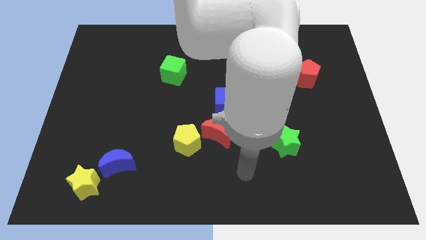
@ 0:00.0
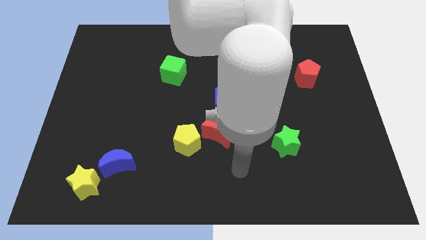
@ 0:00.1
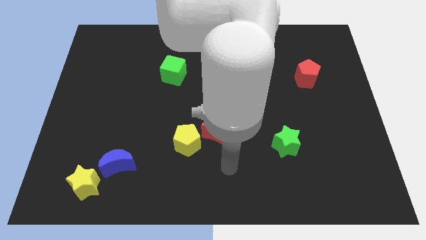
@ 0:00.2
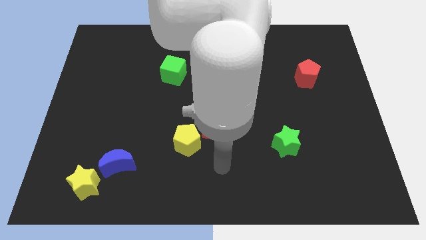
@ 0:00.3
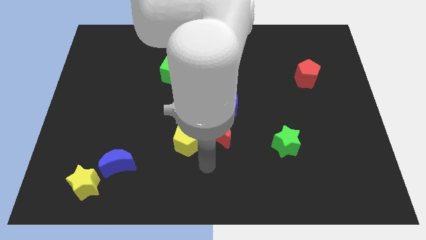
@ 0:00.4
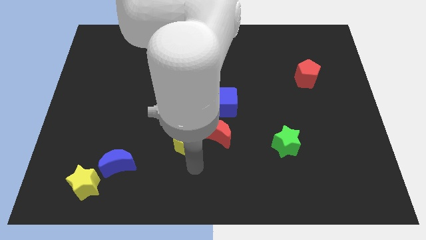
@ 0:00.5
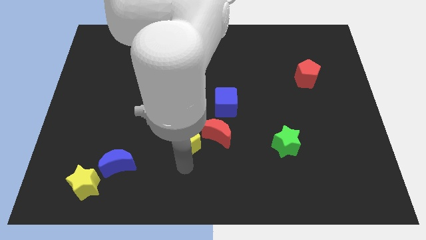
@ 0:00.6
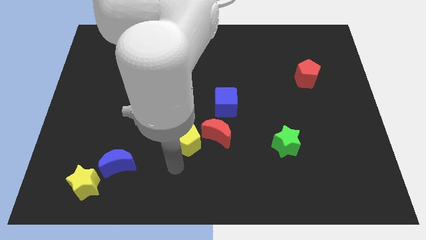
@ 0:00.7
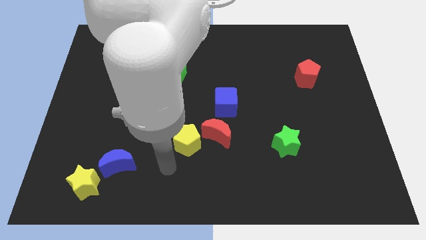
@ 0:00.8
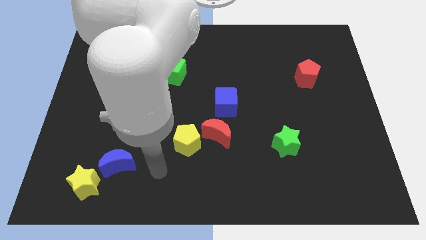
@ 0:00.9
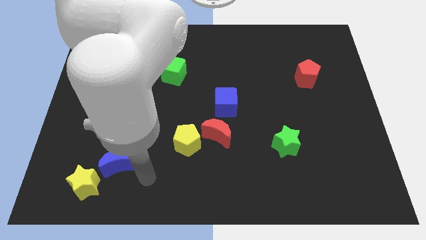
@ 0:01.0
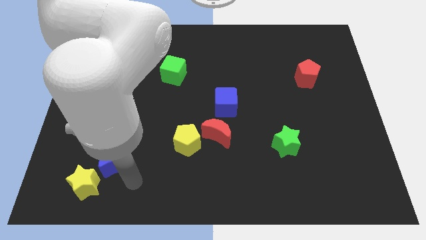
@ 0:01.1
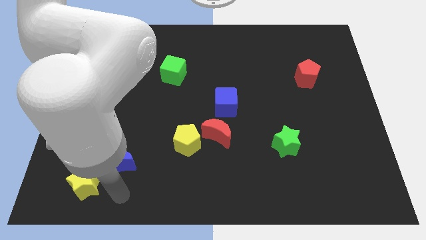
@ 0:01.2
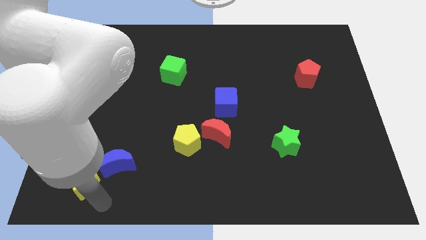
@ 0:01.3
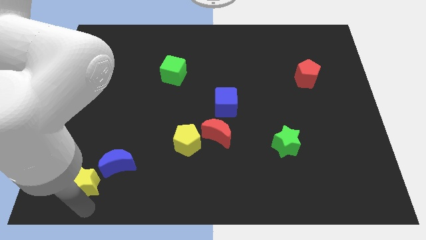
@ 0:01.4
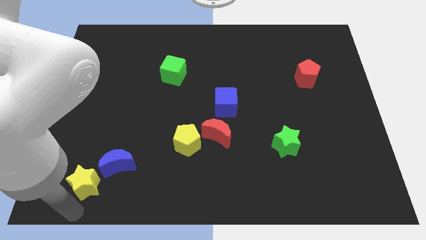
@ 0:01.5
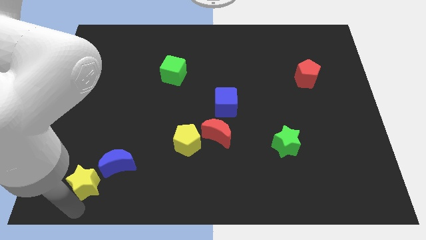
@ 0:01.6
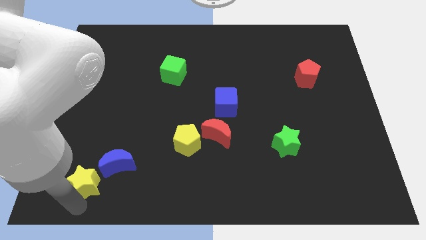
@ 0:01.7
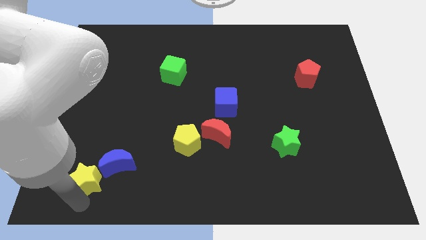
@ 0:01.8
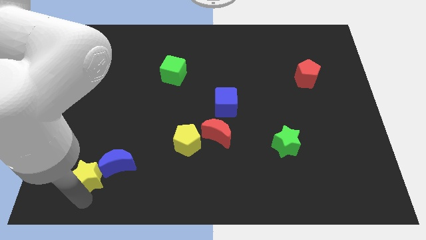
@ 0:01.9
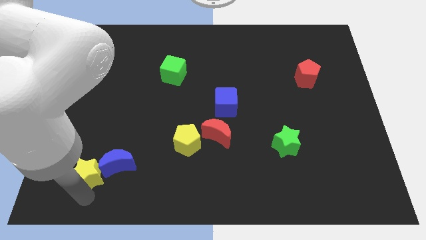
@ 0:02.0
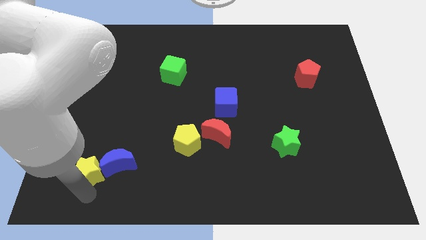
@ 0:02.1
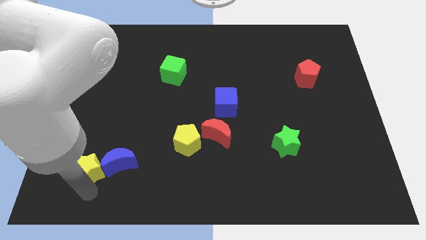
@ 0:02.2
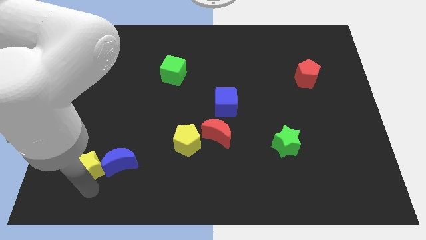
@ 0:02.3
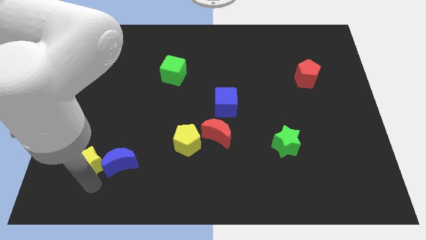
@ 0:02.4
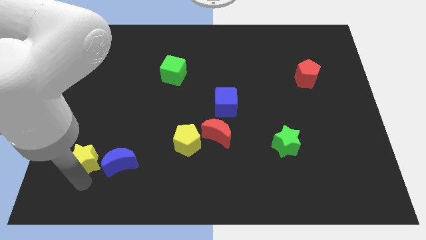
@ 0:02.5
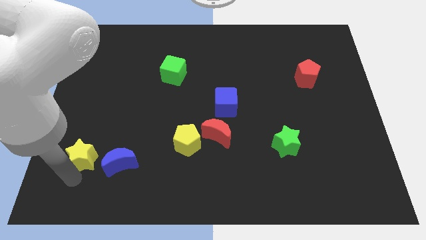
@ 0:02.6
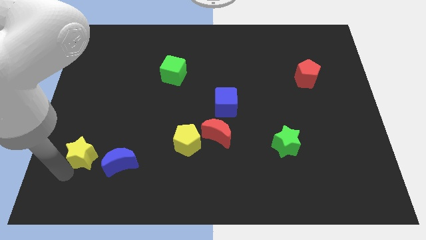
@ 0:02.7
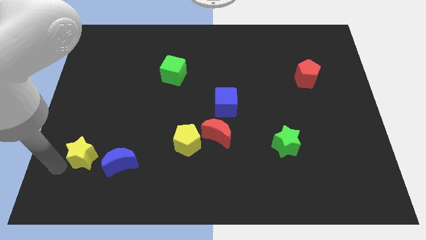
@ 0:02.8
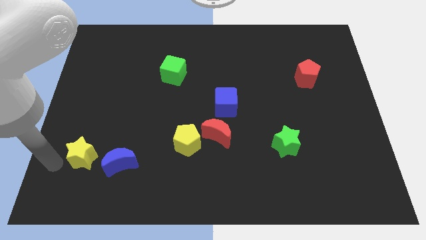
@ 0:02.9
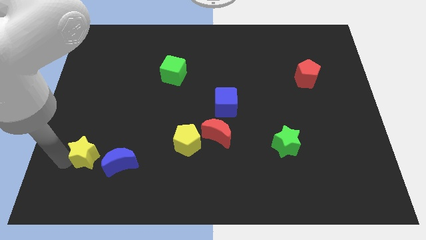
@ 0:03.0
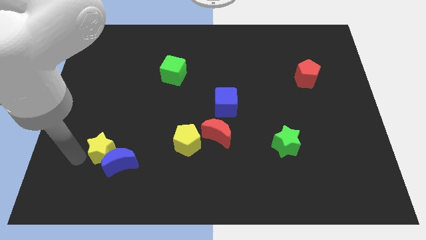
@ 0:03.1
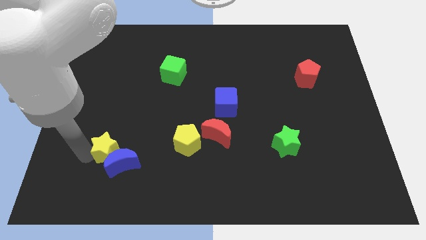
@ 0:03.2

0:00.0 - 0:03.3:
slide the yellow star a little bit upwards and then right

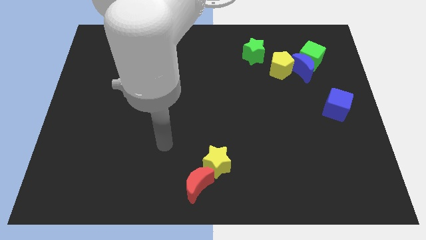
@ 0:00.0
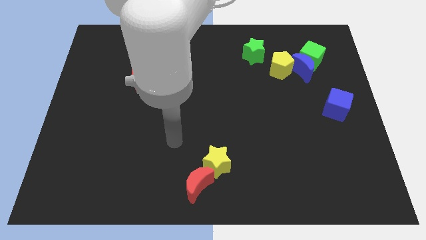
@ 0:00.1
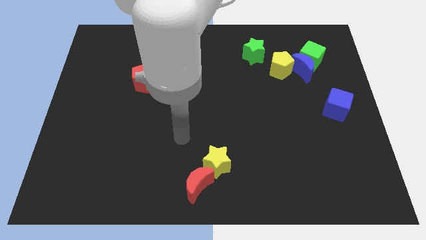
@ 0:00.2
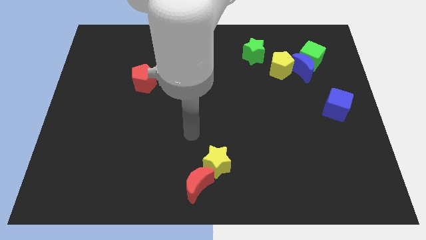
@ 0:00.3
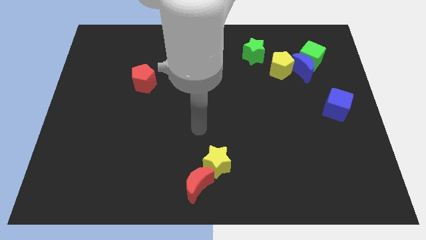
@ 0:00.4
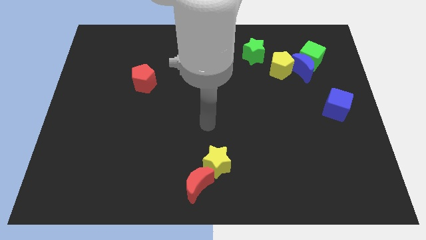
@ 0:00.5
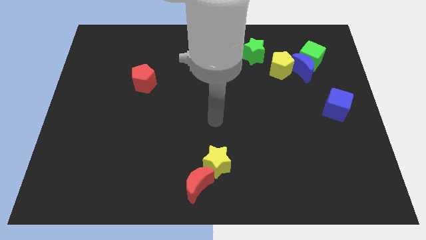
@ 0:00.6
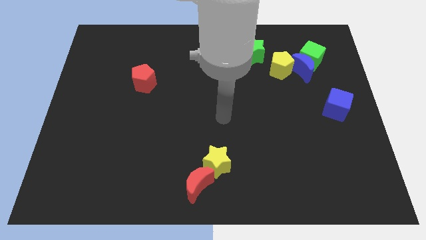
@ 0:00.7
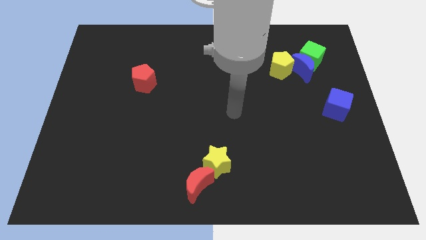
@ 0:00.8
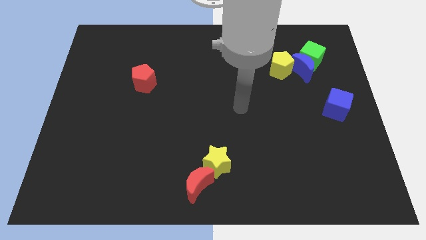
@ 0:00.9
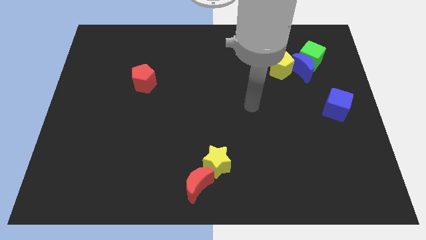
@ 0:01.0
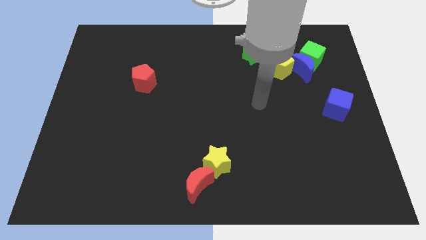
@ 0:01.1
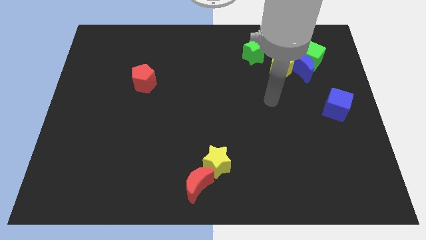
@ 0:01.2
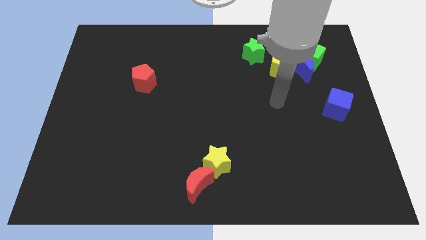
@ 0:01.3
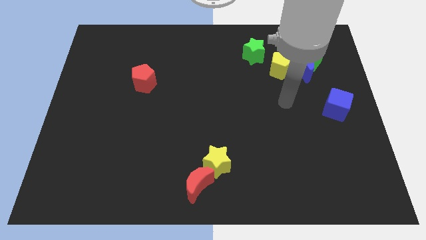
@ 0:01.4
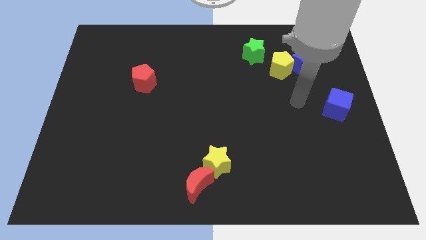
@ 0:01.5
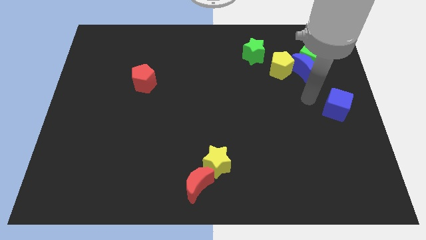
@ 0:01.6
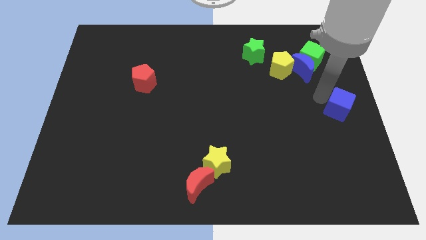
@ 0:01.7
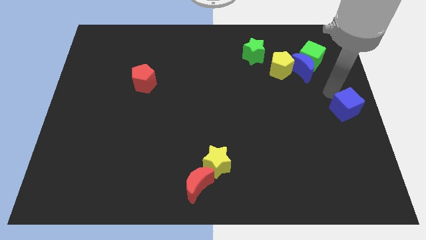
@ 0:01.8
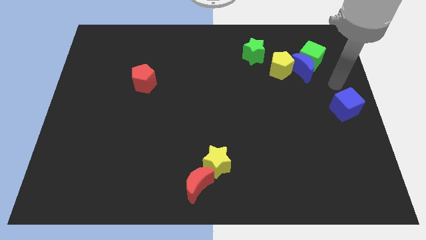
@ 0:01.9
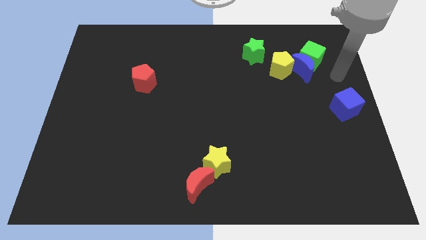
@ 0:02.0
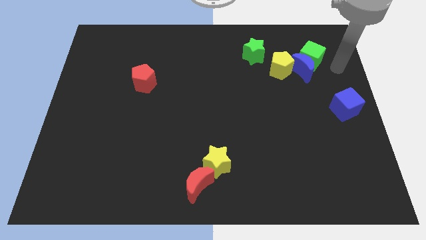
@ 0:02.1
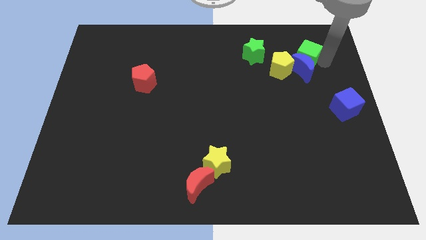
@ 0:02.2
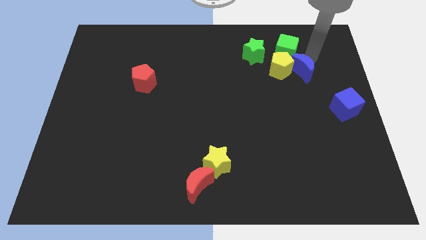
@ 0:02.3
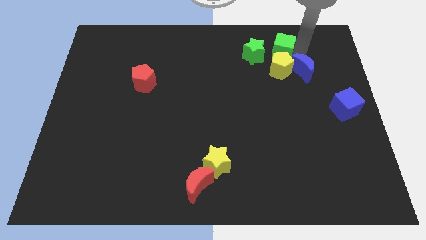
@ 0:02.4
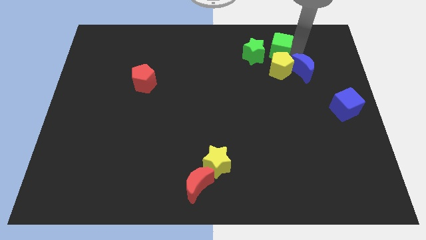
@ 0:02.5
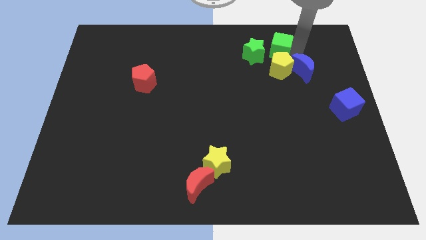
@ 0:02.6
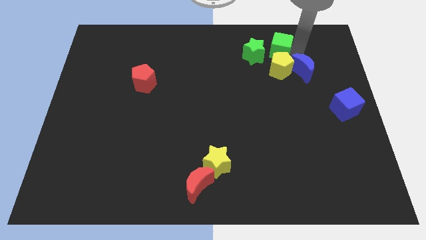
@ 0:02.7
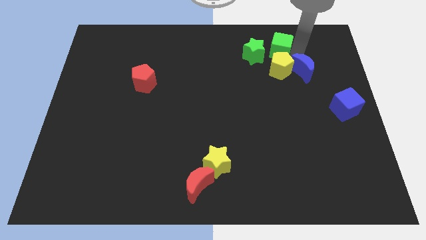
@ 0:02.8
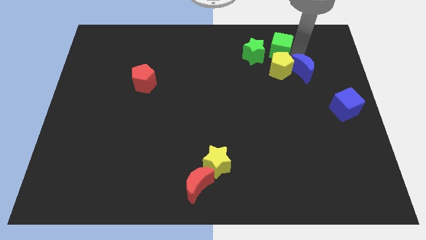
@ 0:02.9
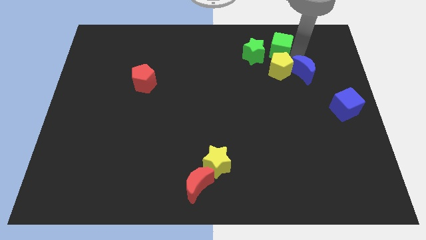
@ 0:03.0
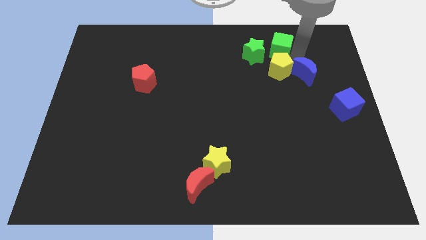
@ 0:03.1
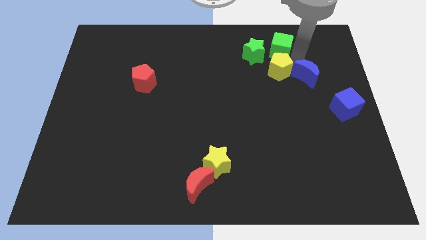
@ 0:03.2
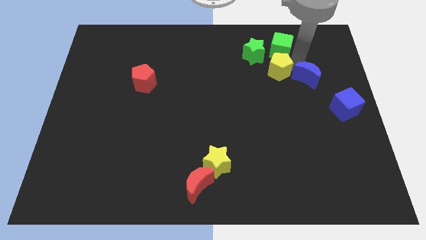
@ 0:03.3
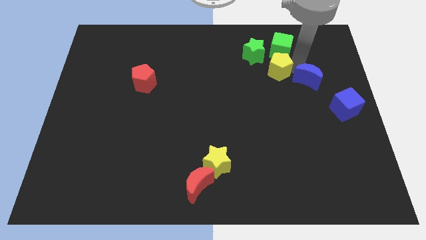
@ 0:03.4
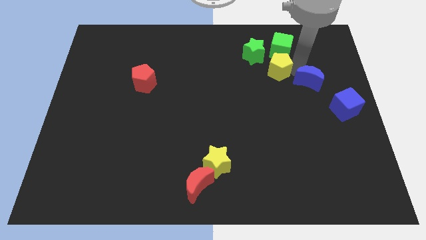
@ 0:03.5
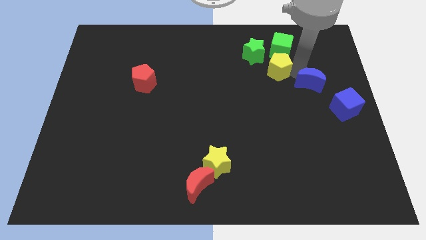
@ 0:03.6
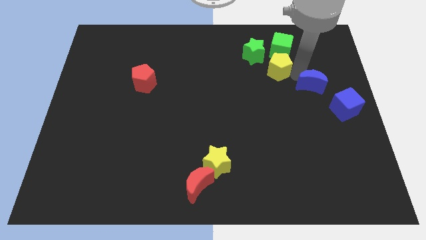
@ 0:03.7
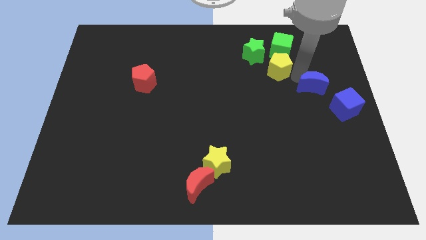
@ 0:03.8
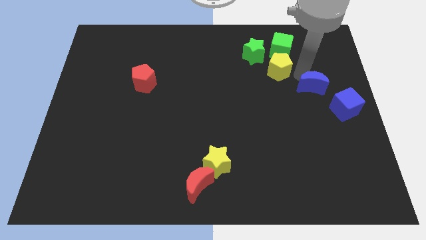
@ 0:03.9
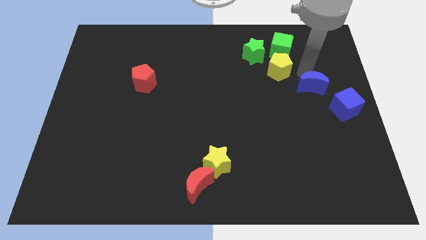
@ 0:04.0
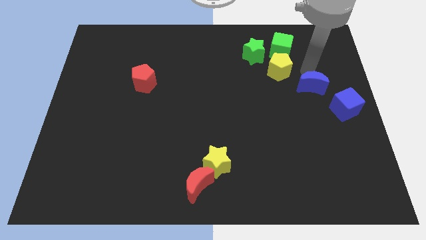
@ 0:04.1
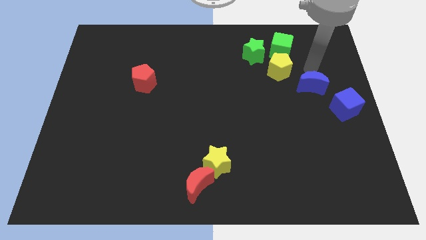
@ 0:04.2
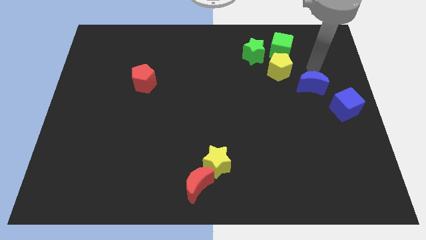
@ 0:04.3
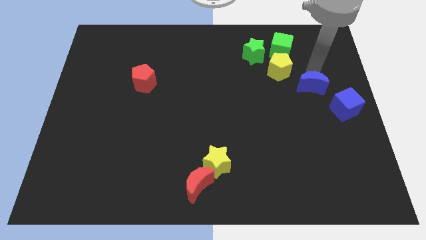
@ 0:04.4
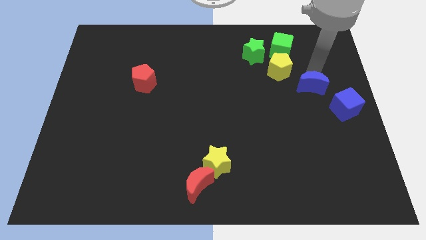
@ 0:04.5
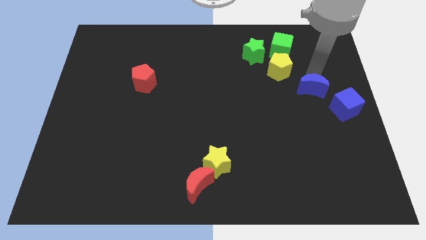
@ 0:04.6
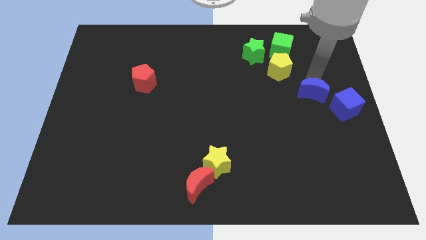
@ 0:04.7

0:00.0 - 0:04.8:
slide the blue moon down a bit
